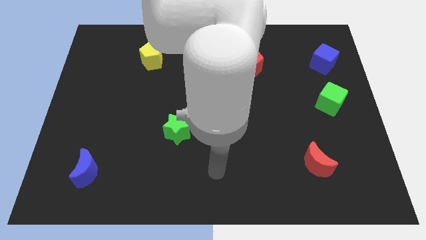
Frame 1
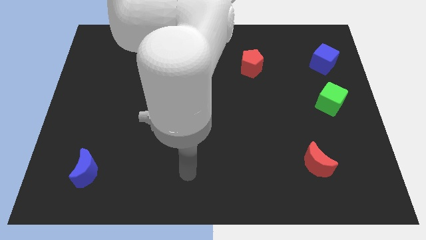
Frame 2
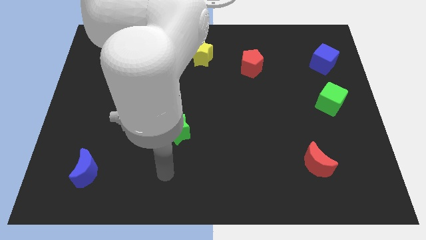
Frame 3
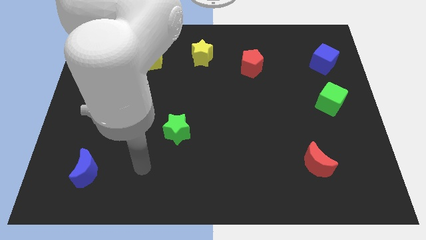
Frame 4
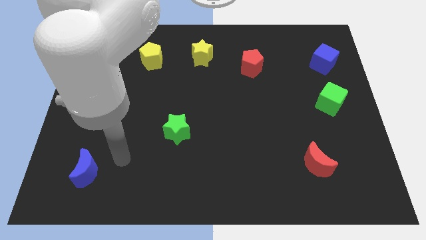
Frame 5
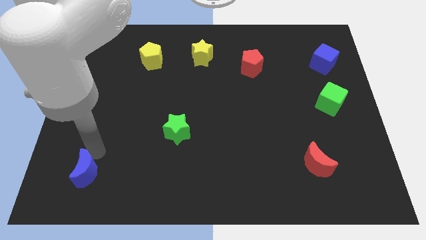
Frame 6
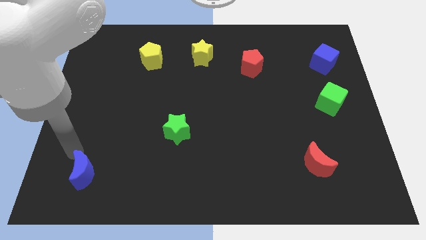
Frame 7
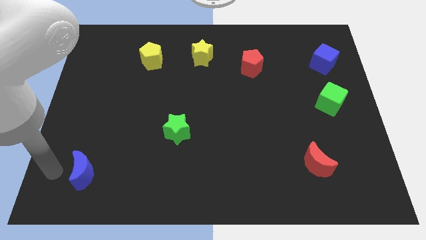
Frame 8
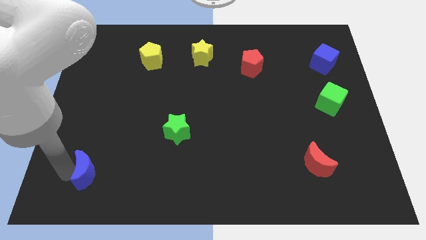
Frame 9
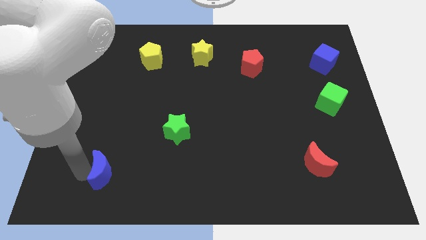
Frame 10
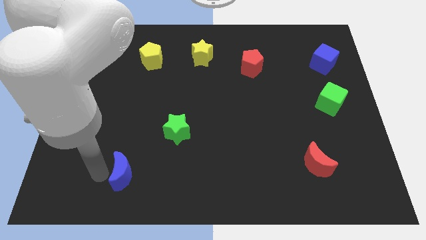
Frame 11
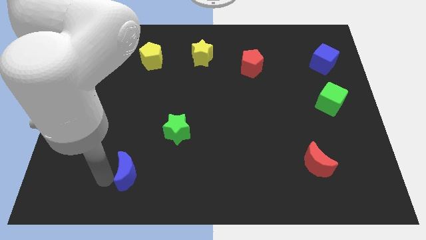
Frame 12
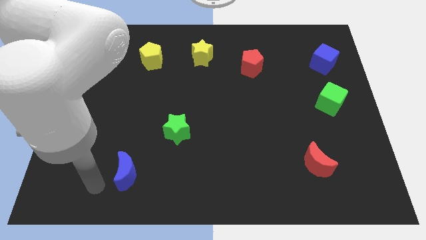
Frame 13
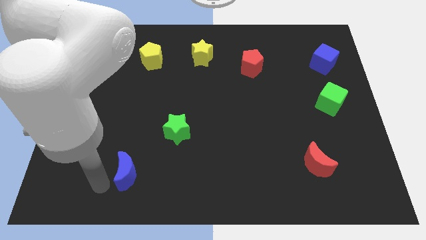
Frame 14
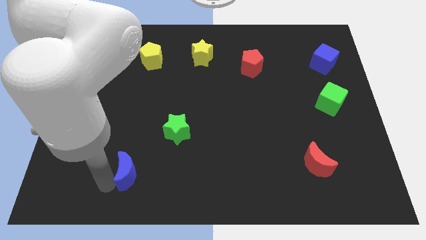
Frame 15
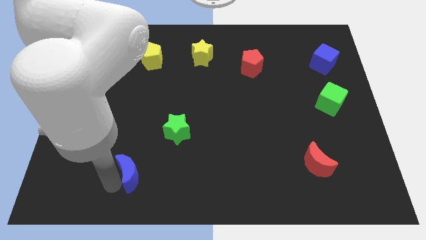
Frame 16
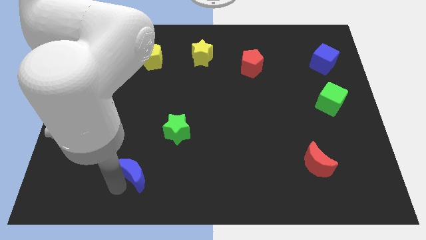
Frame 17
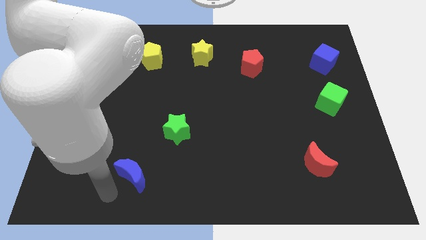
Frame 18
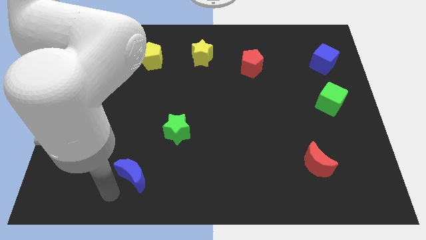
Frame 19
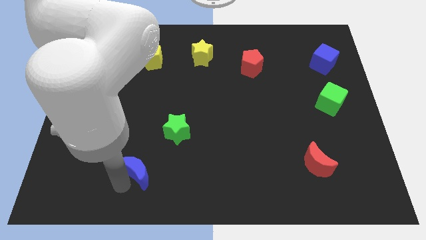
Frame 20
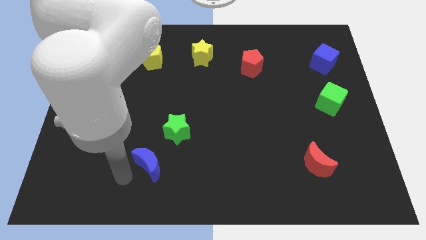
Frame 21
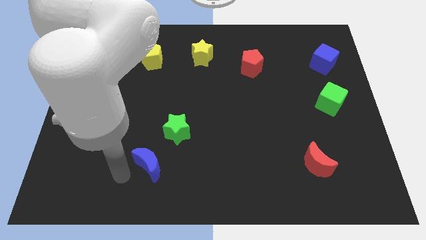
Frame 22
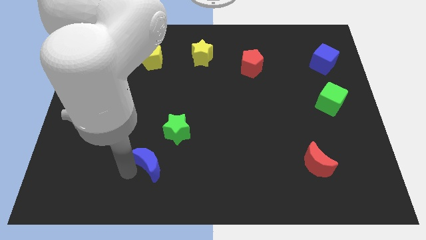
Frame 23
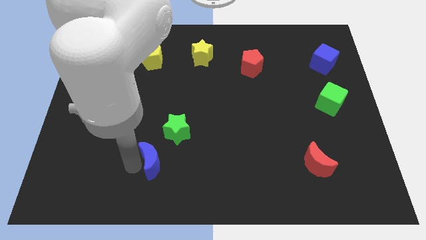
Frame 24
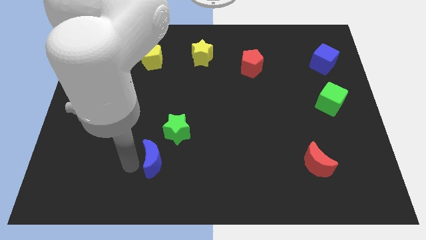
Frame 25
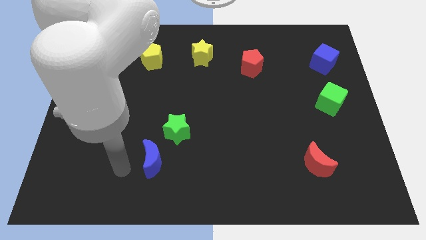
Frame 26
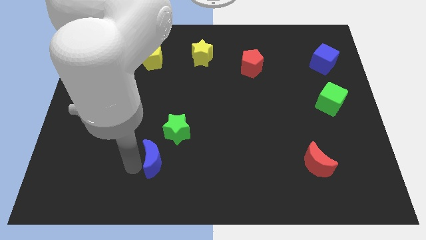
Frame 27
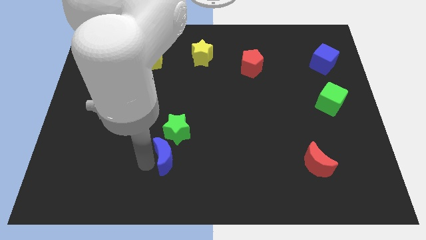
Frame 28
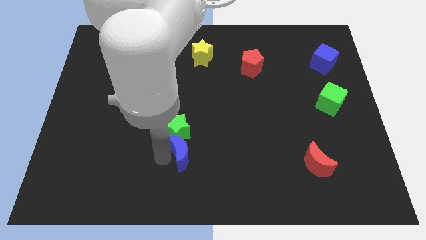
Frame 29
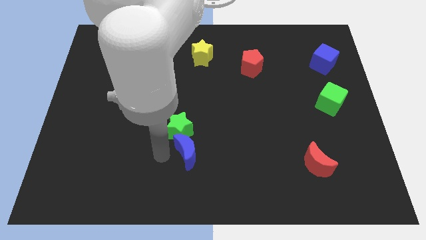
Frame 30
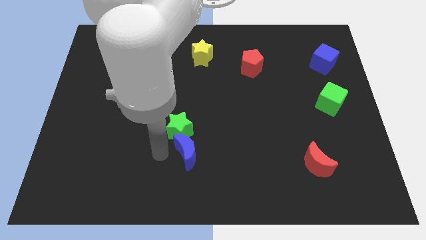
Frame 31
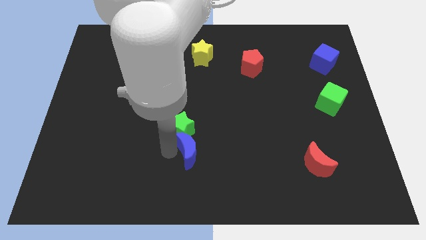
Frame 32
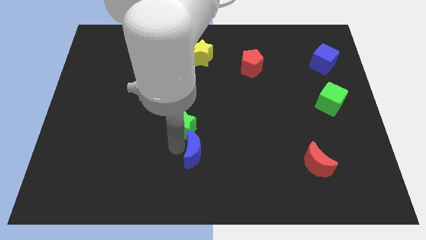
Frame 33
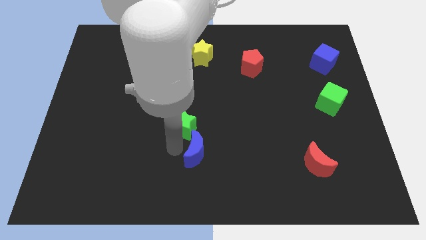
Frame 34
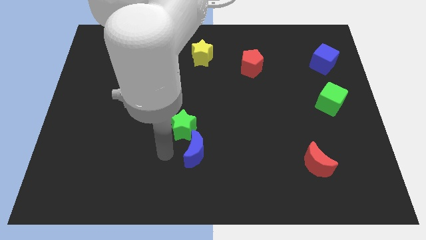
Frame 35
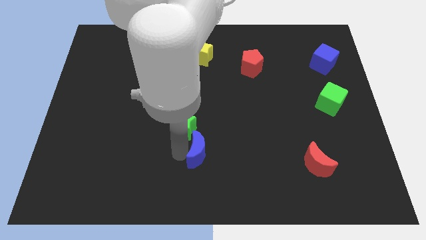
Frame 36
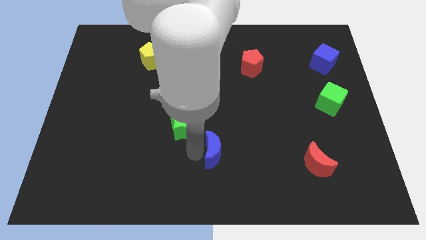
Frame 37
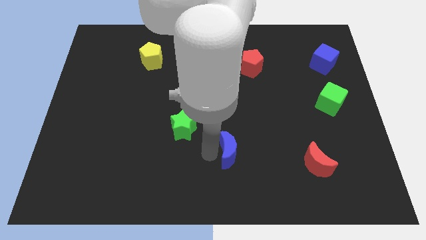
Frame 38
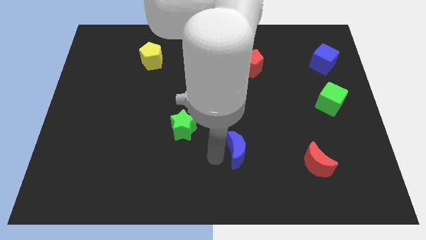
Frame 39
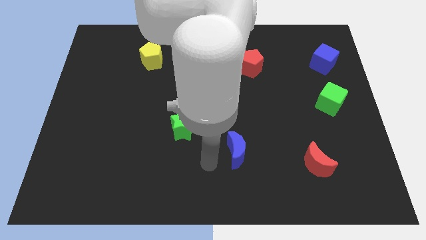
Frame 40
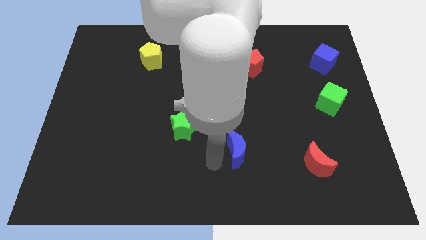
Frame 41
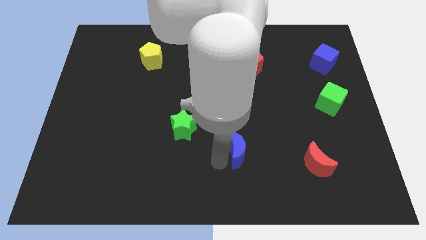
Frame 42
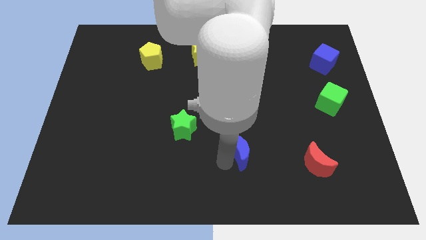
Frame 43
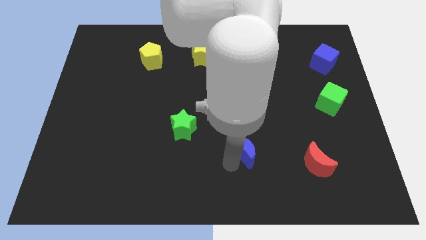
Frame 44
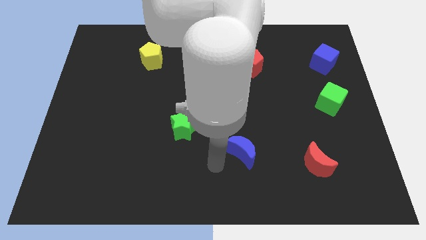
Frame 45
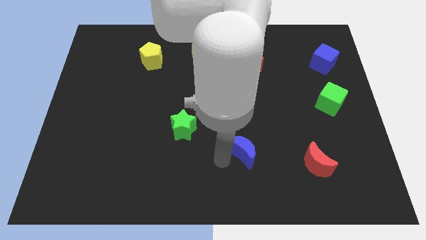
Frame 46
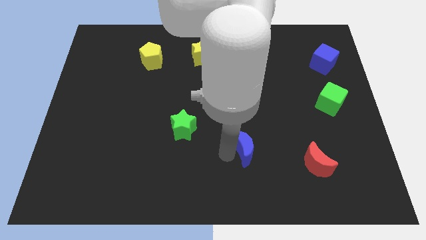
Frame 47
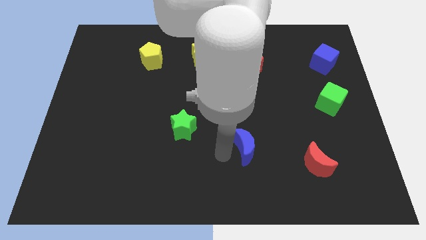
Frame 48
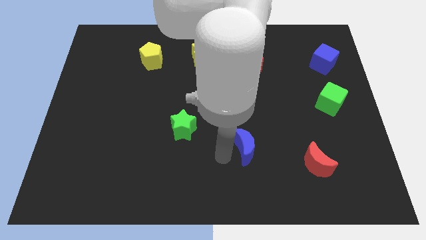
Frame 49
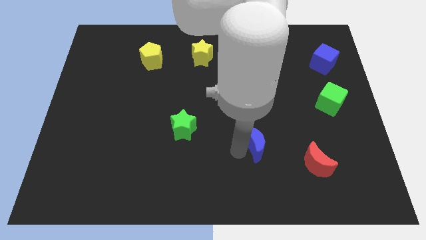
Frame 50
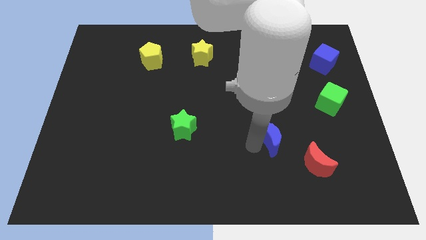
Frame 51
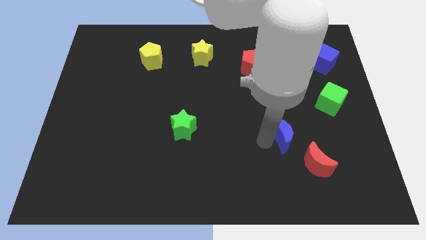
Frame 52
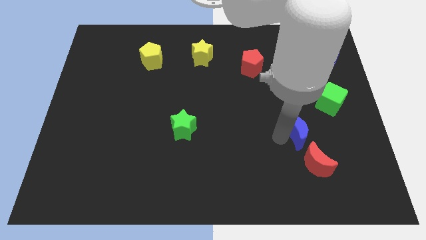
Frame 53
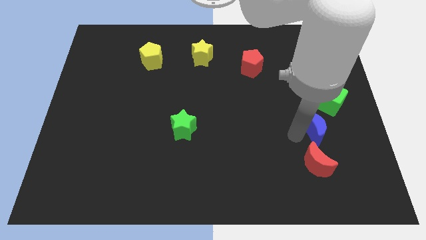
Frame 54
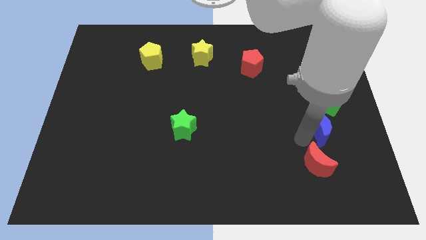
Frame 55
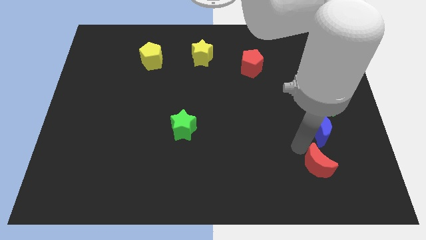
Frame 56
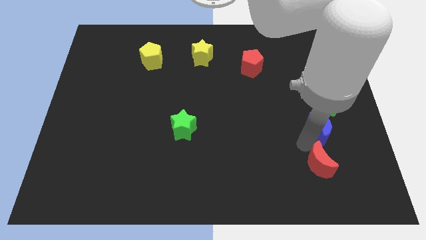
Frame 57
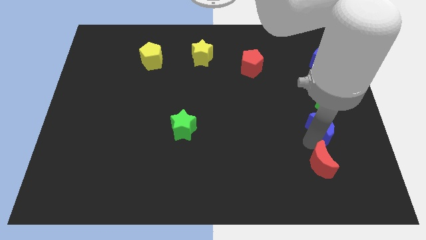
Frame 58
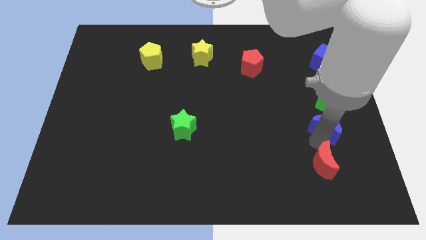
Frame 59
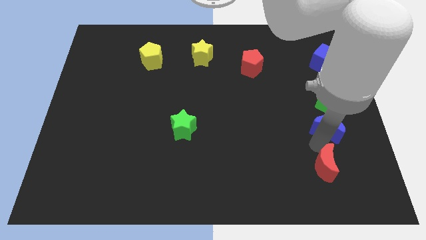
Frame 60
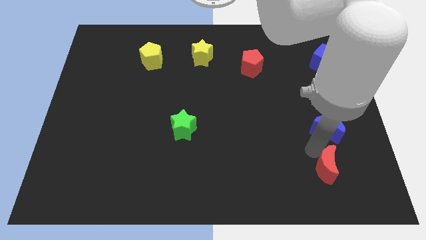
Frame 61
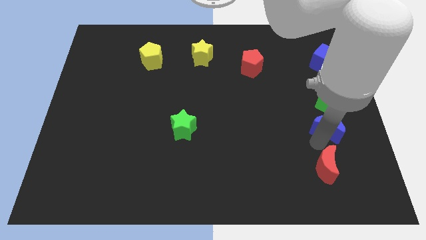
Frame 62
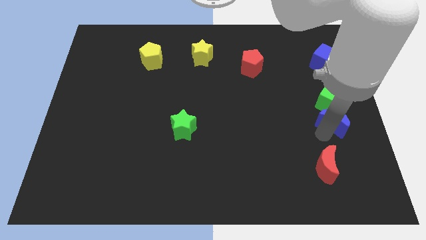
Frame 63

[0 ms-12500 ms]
push the blue moon to the center right

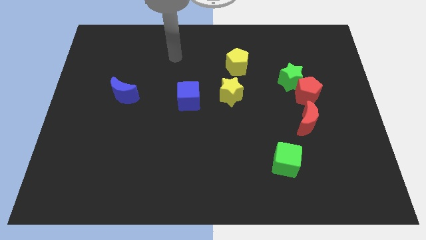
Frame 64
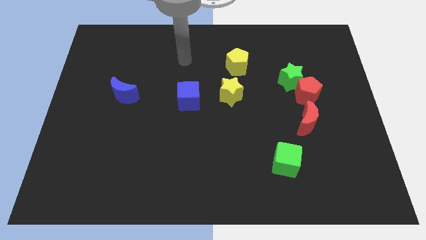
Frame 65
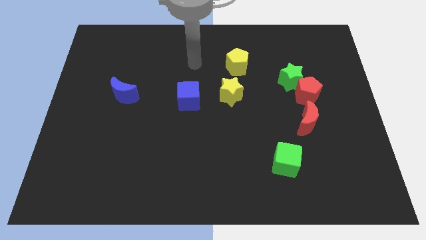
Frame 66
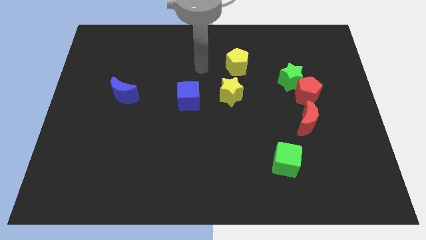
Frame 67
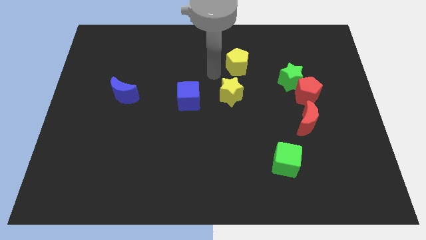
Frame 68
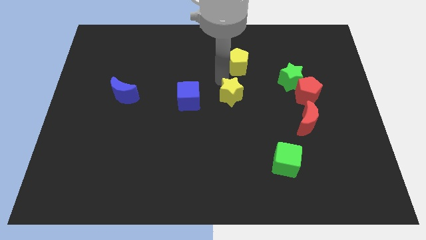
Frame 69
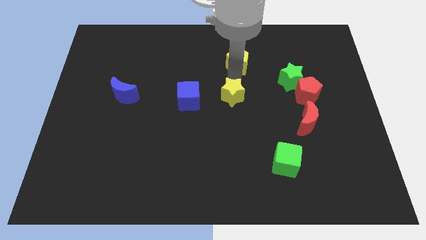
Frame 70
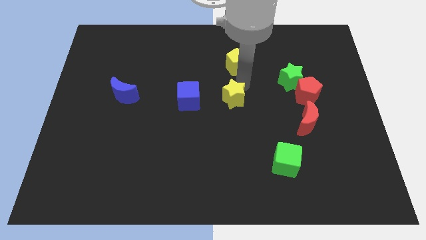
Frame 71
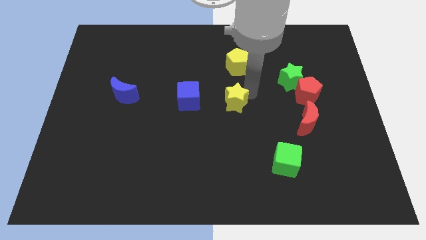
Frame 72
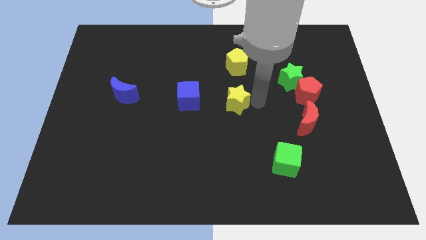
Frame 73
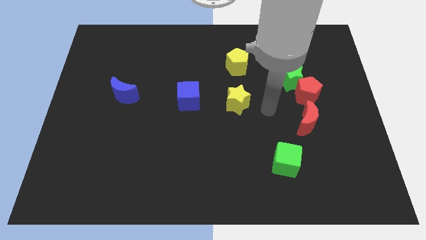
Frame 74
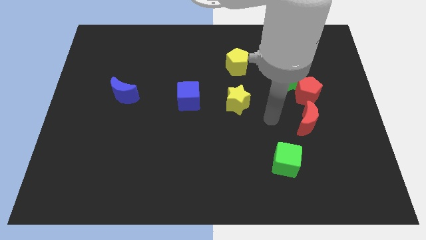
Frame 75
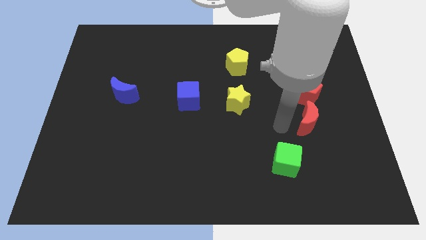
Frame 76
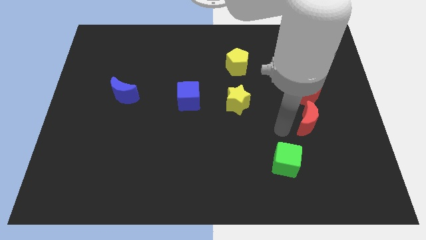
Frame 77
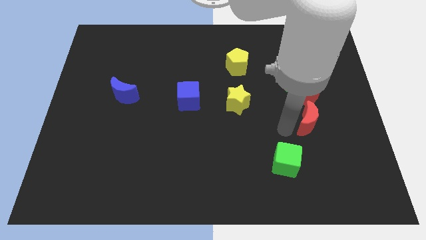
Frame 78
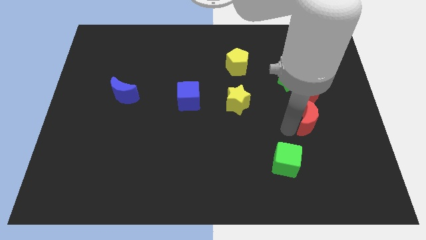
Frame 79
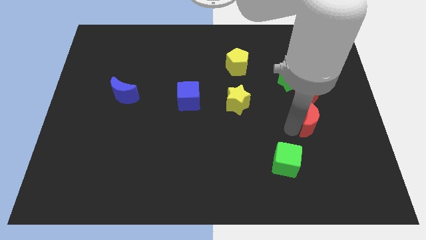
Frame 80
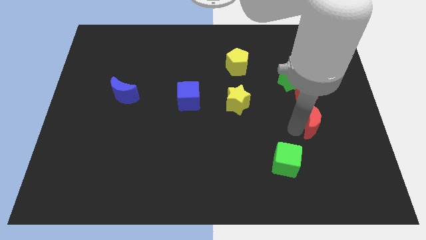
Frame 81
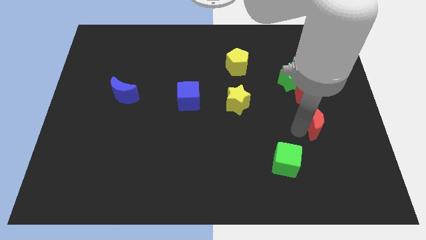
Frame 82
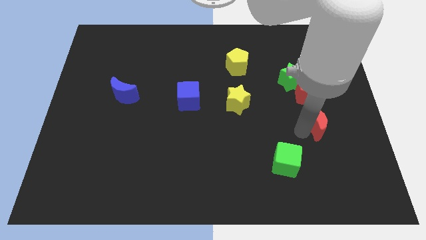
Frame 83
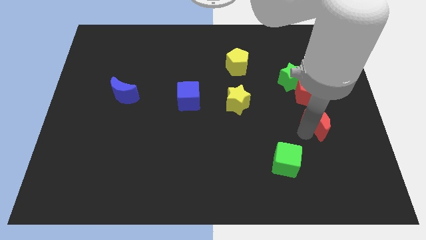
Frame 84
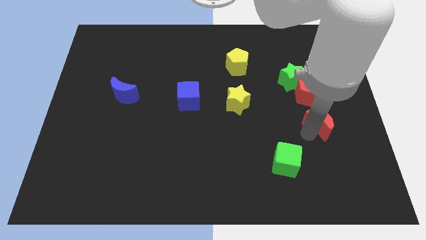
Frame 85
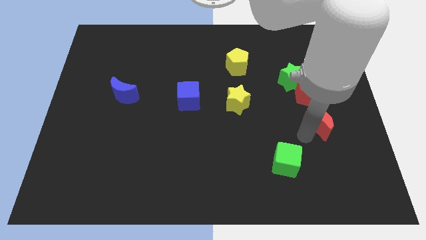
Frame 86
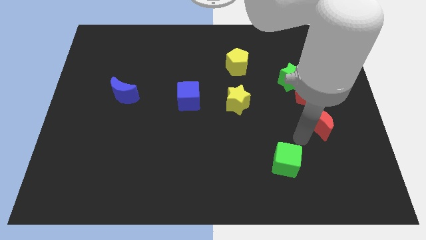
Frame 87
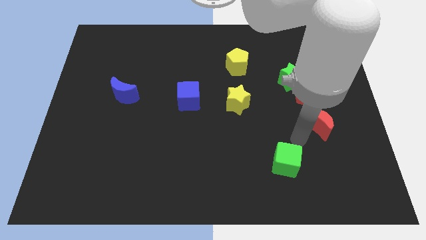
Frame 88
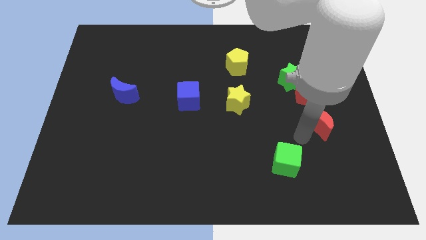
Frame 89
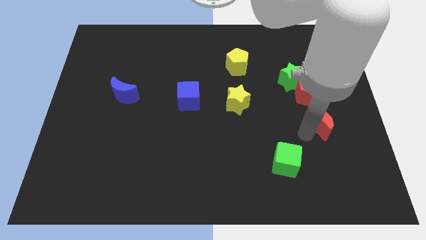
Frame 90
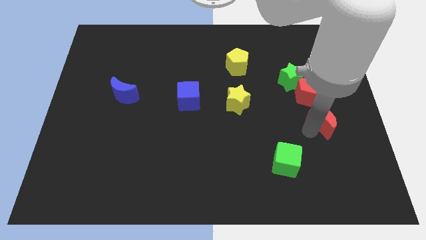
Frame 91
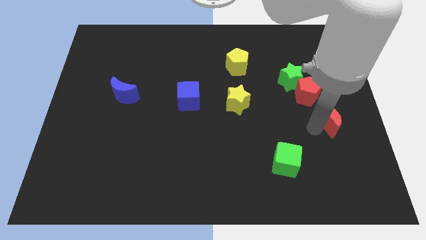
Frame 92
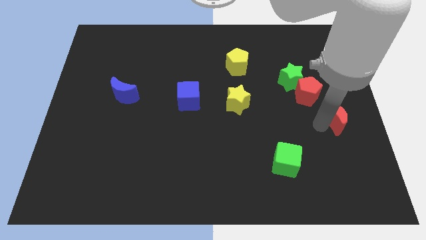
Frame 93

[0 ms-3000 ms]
move the red moon to the right side
